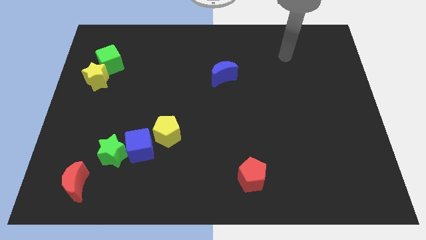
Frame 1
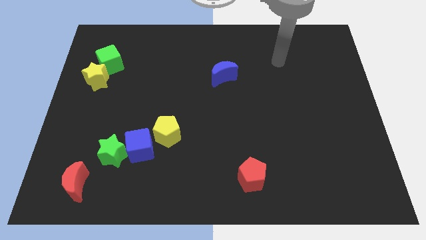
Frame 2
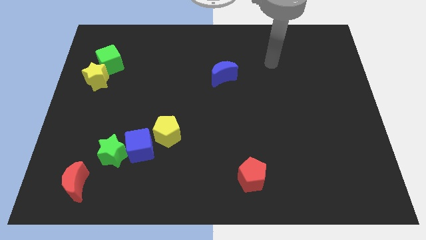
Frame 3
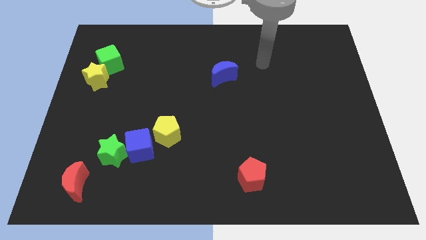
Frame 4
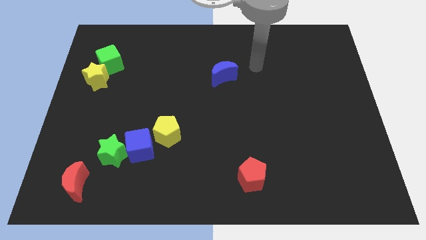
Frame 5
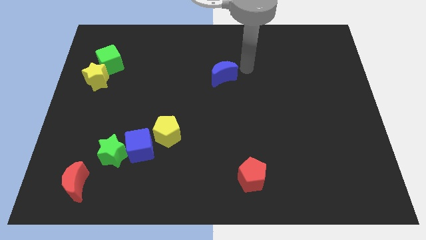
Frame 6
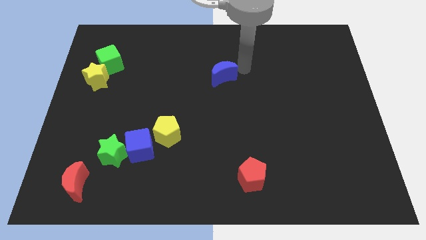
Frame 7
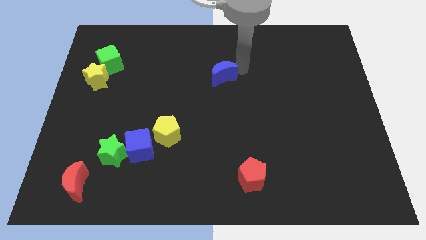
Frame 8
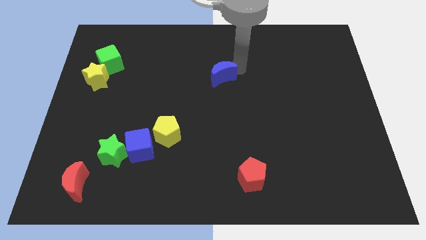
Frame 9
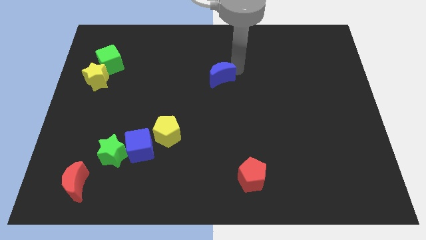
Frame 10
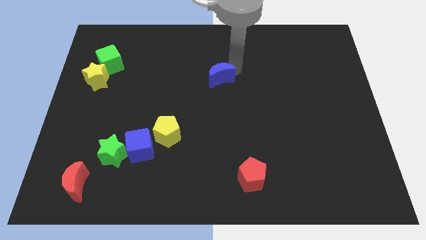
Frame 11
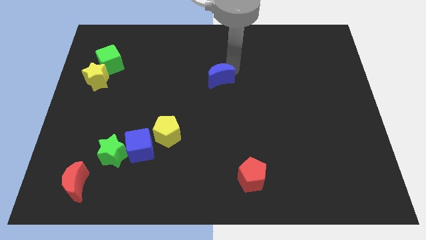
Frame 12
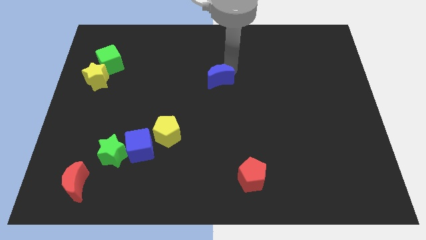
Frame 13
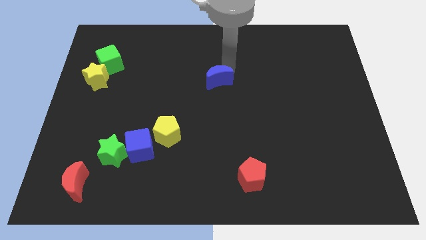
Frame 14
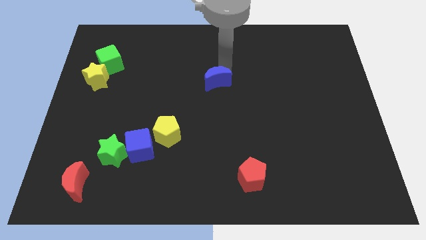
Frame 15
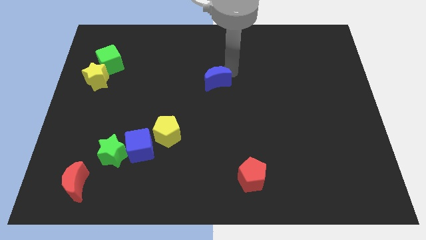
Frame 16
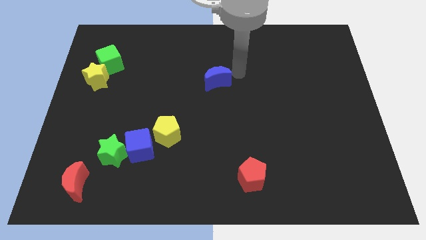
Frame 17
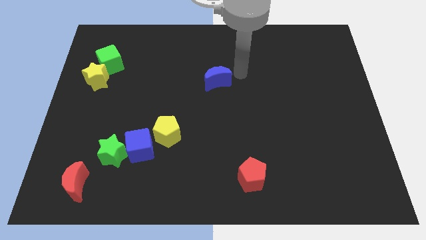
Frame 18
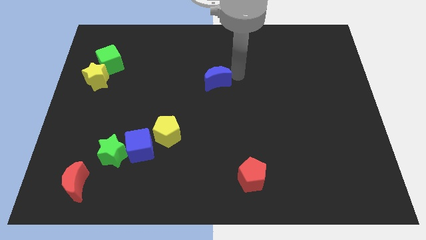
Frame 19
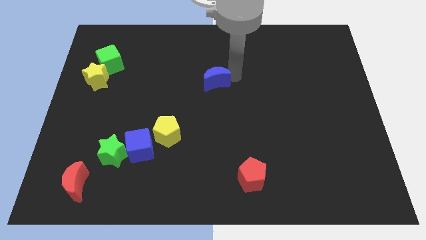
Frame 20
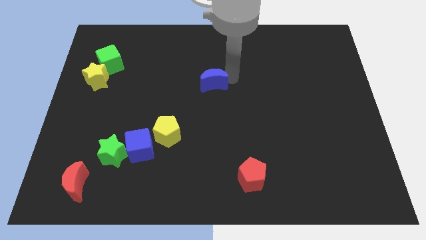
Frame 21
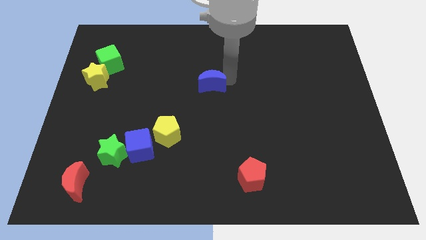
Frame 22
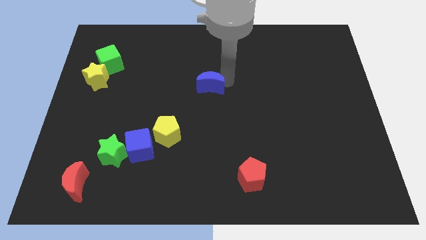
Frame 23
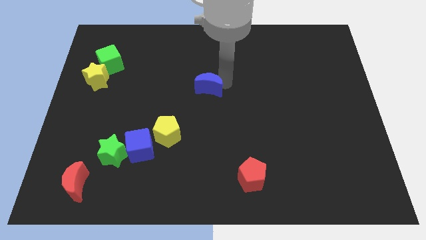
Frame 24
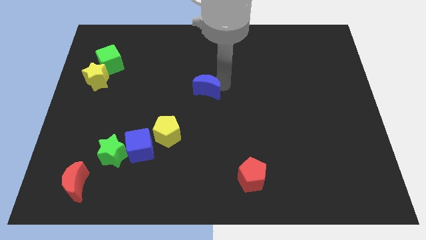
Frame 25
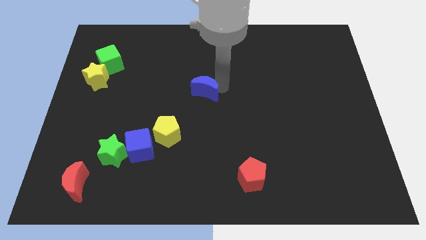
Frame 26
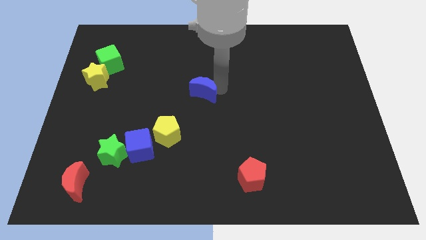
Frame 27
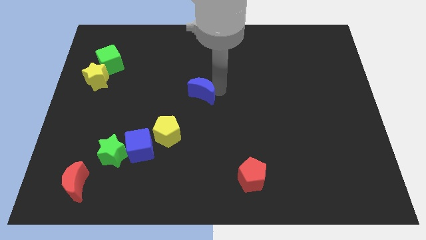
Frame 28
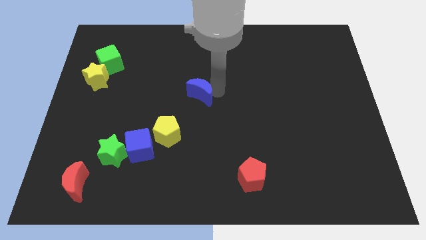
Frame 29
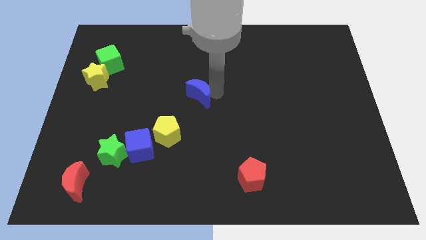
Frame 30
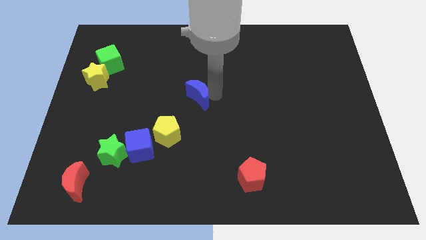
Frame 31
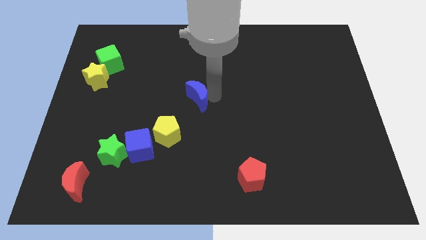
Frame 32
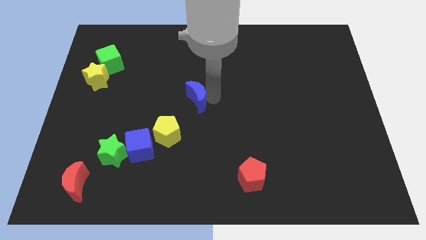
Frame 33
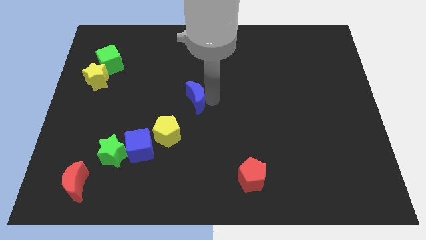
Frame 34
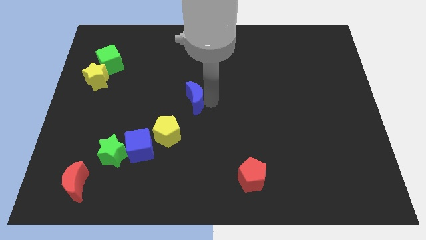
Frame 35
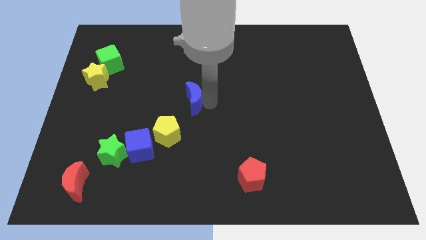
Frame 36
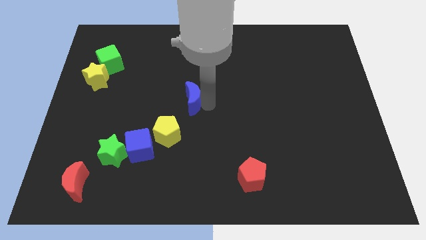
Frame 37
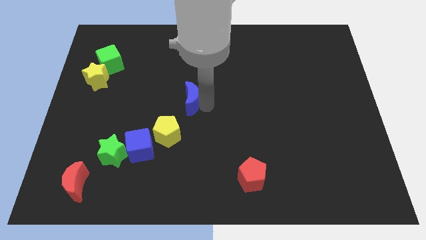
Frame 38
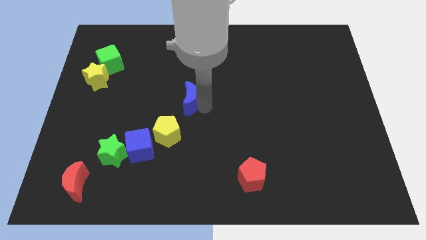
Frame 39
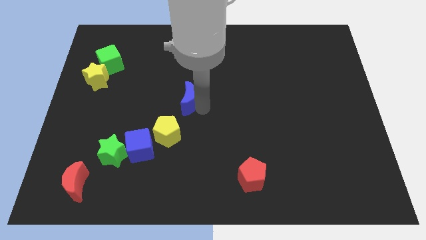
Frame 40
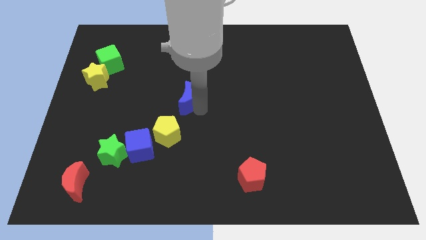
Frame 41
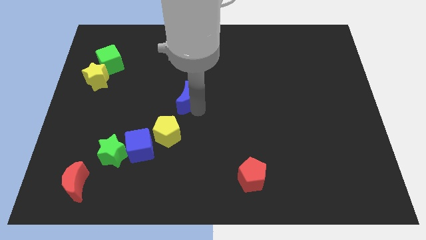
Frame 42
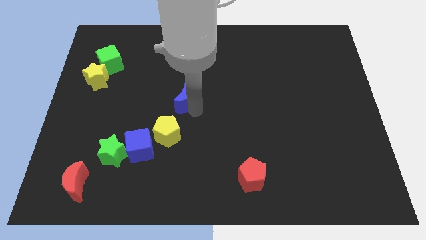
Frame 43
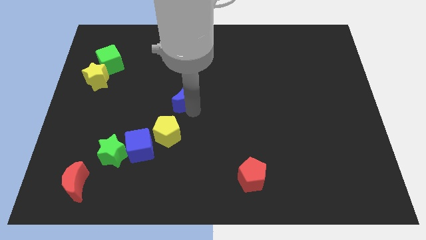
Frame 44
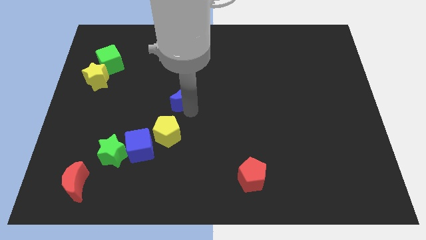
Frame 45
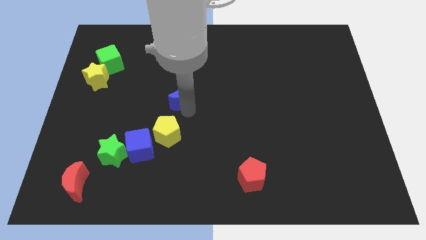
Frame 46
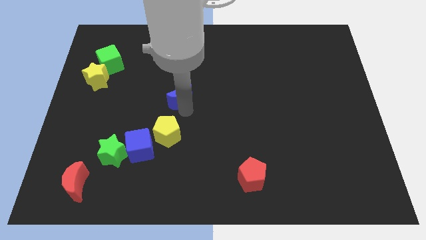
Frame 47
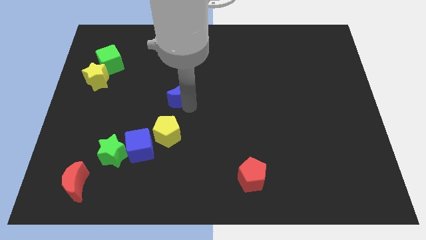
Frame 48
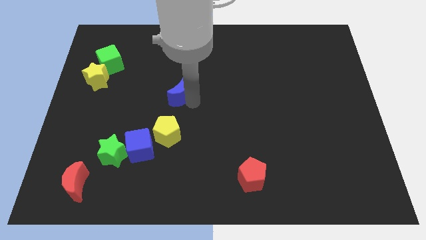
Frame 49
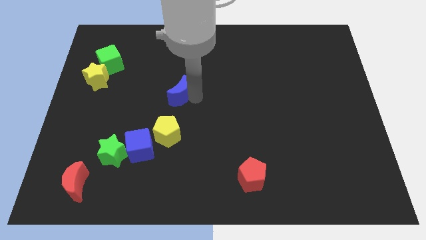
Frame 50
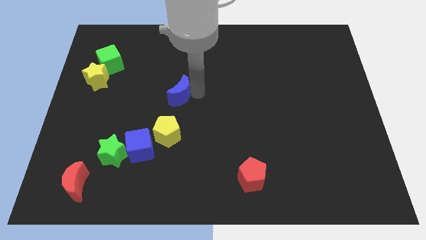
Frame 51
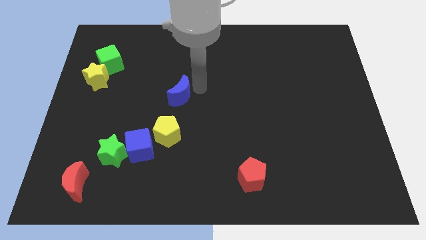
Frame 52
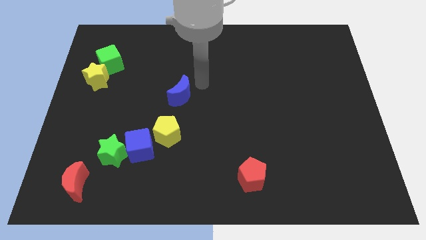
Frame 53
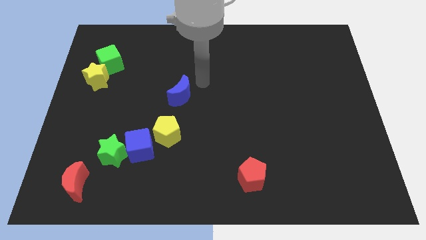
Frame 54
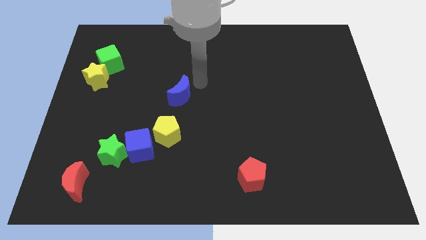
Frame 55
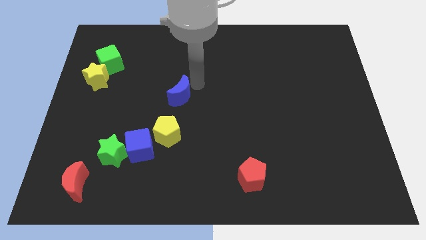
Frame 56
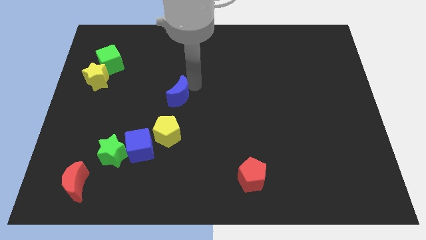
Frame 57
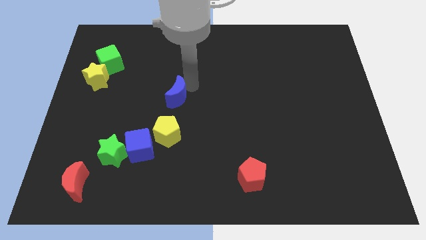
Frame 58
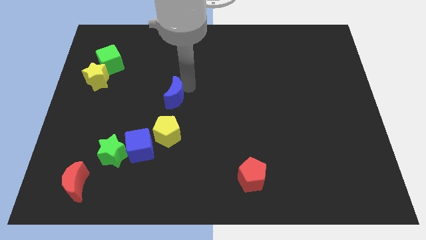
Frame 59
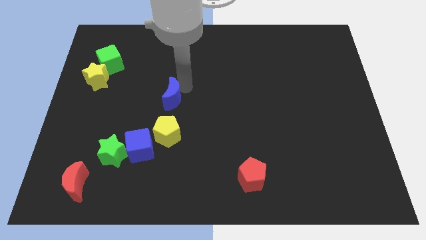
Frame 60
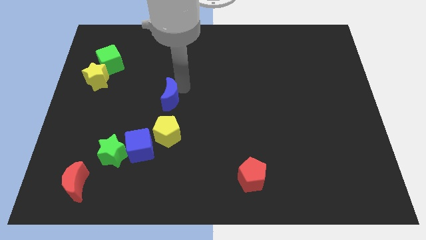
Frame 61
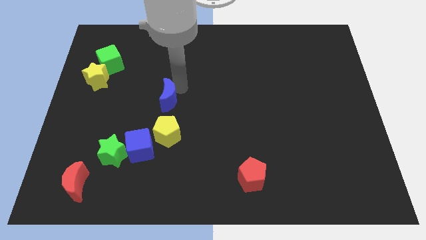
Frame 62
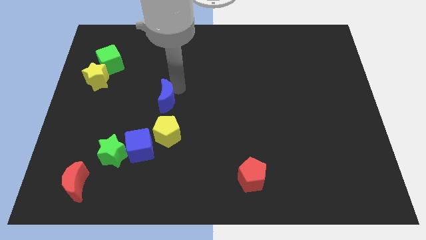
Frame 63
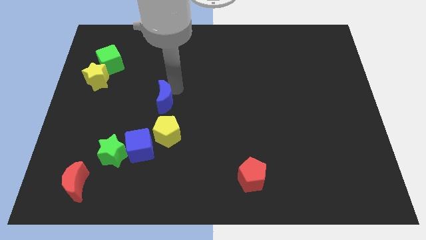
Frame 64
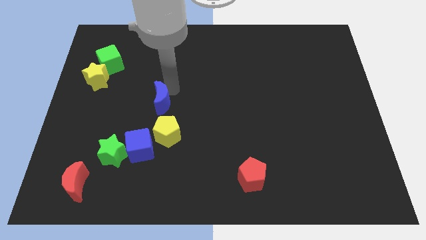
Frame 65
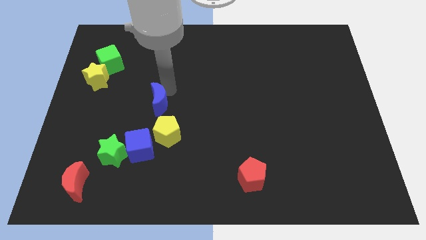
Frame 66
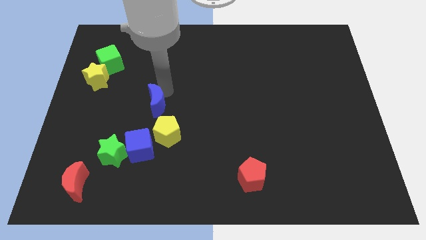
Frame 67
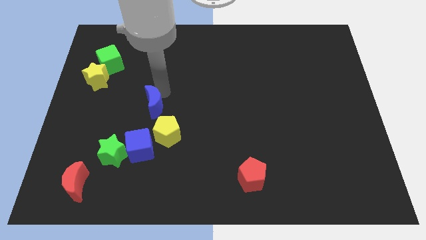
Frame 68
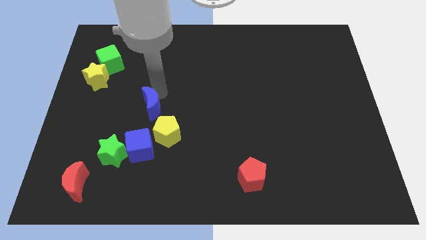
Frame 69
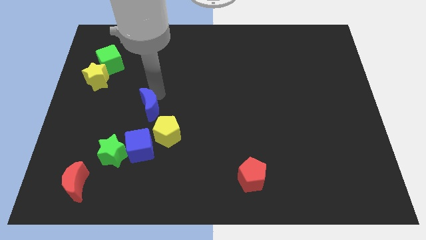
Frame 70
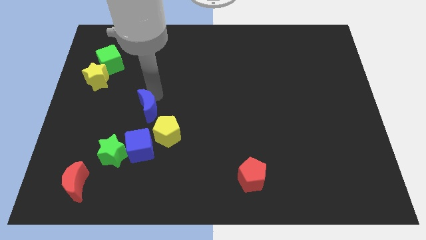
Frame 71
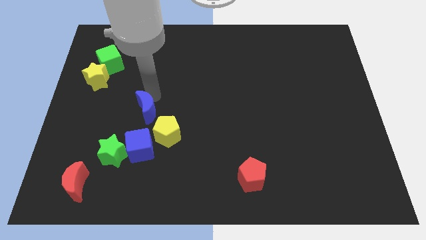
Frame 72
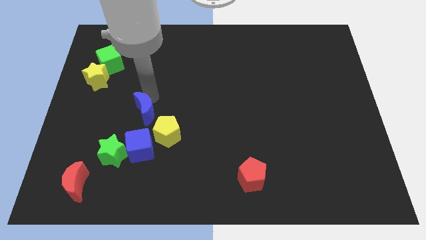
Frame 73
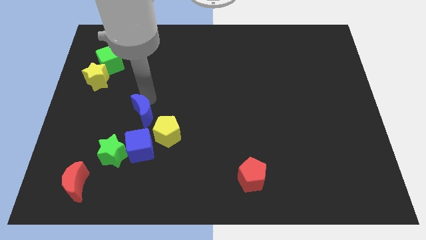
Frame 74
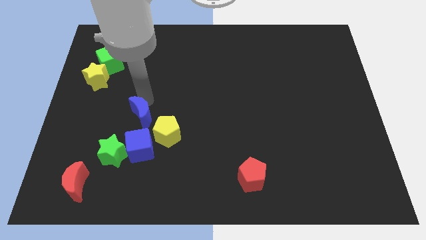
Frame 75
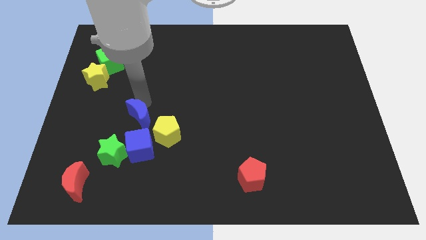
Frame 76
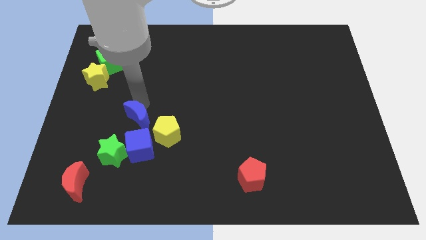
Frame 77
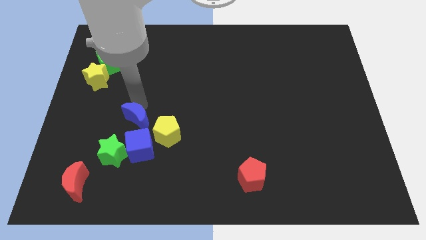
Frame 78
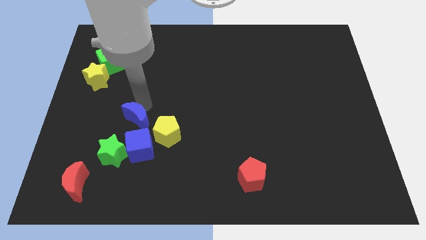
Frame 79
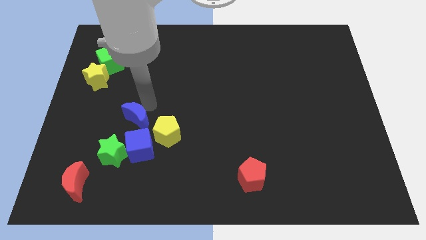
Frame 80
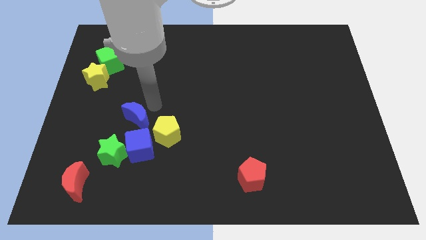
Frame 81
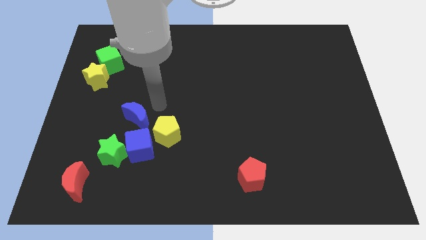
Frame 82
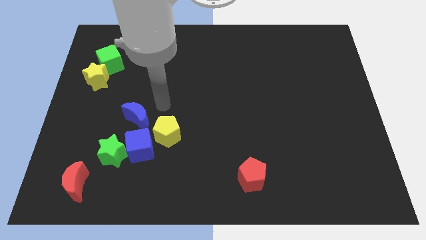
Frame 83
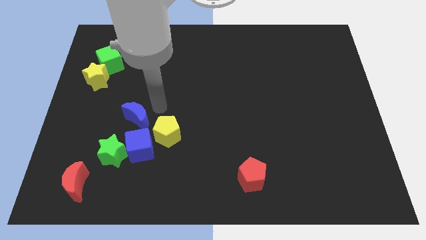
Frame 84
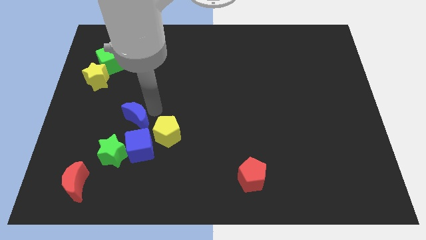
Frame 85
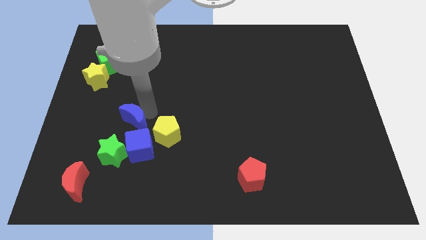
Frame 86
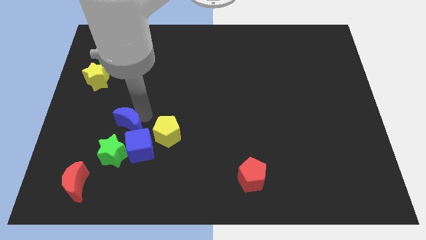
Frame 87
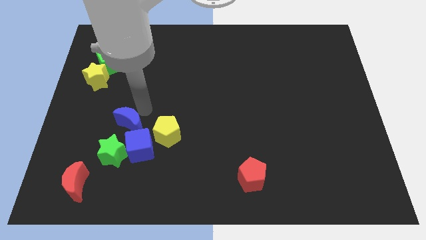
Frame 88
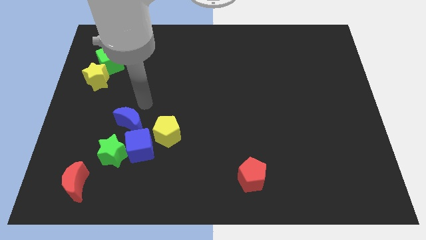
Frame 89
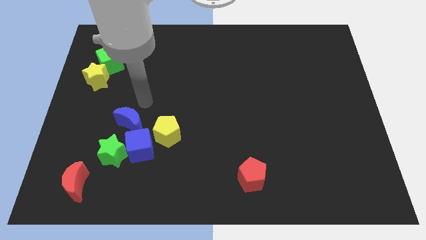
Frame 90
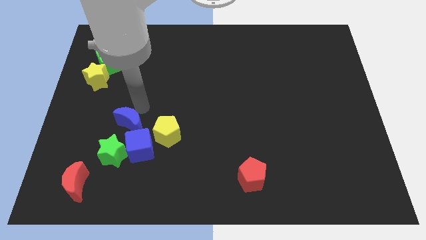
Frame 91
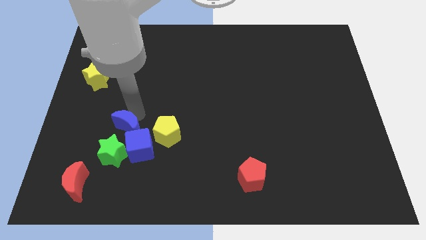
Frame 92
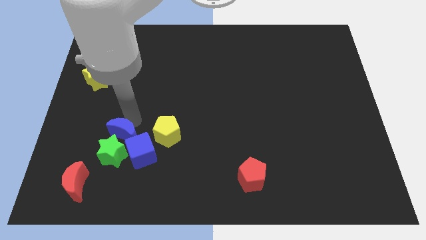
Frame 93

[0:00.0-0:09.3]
move the blue moon to the green star
